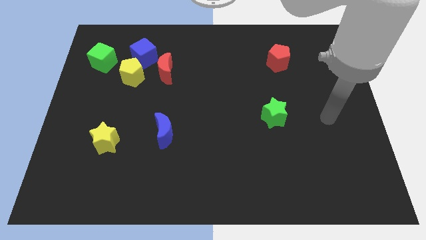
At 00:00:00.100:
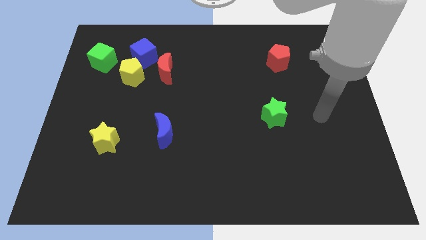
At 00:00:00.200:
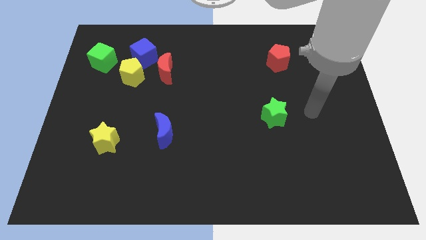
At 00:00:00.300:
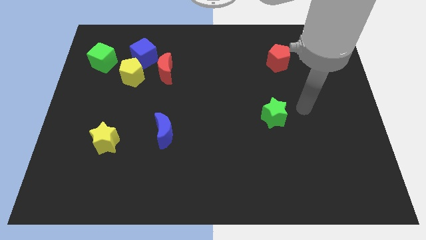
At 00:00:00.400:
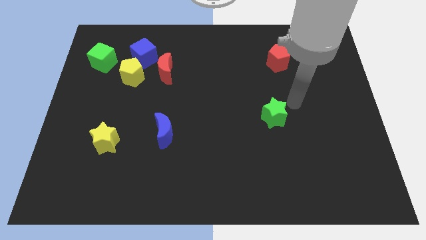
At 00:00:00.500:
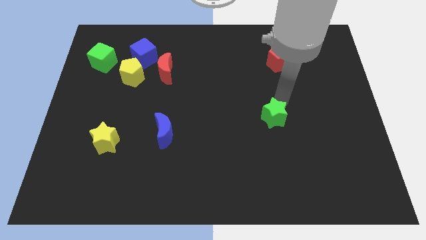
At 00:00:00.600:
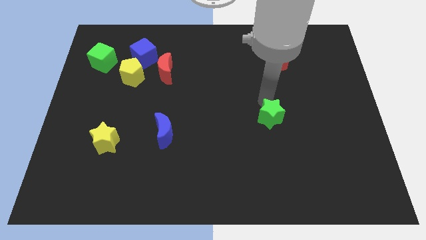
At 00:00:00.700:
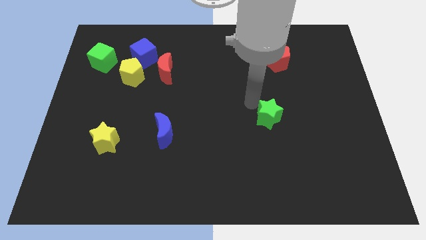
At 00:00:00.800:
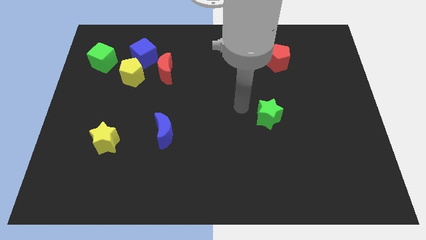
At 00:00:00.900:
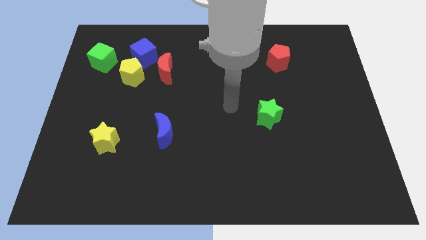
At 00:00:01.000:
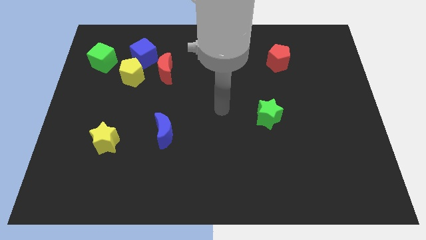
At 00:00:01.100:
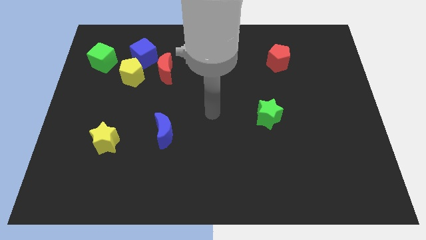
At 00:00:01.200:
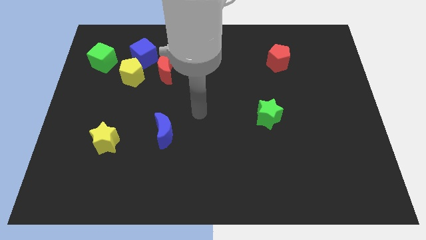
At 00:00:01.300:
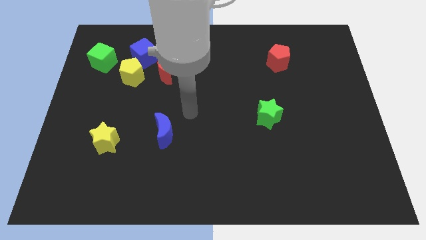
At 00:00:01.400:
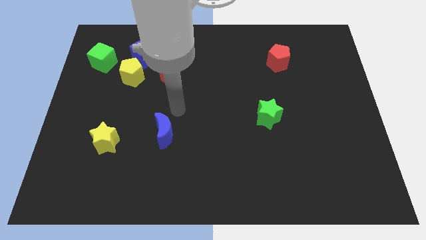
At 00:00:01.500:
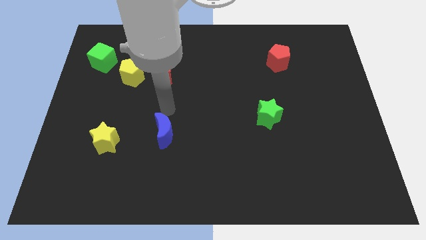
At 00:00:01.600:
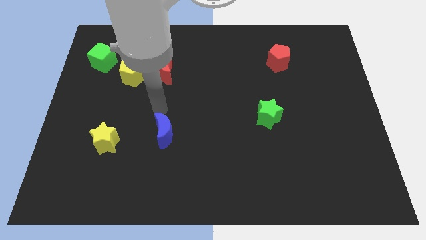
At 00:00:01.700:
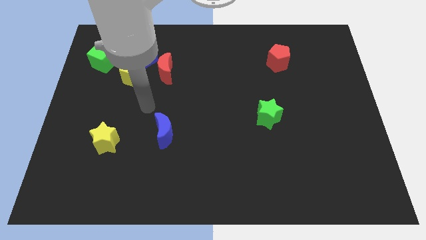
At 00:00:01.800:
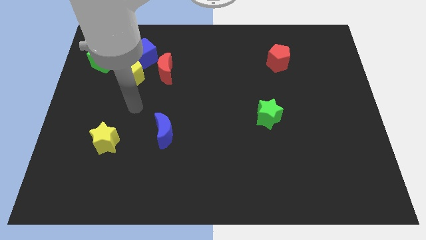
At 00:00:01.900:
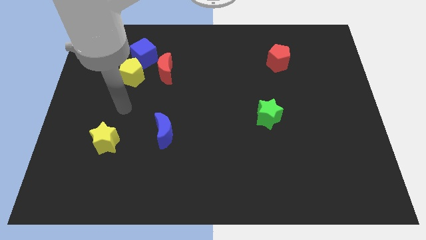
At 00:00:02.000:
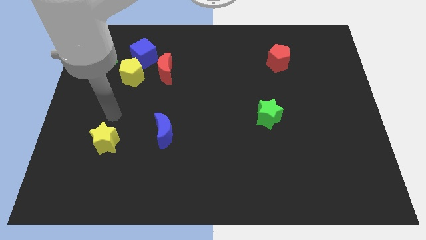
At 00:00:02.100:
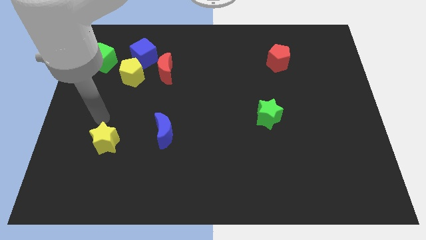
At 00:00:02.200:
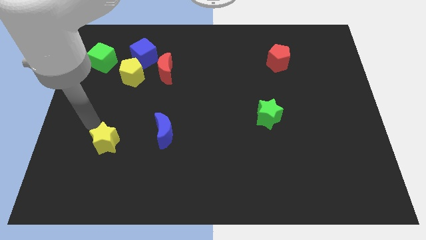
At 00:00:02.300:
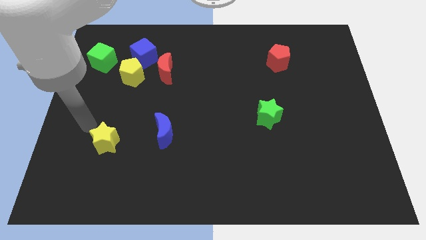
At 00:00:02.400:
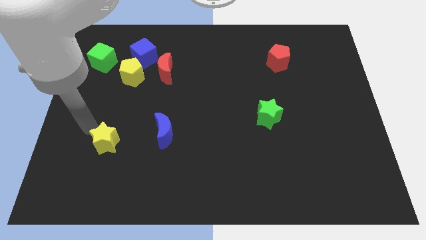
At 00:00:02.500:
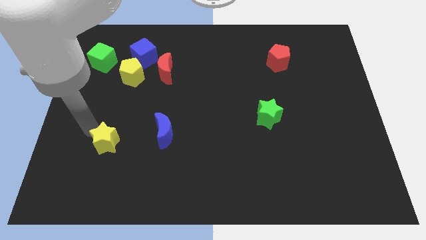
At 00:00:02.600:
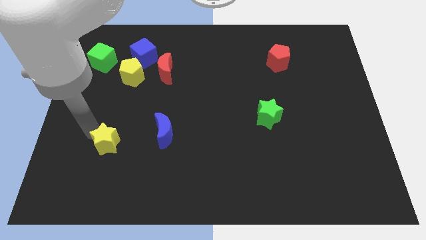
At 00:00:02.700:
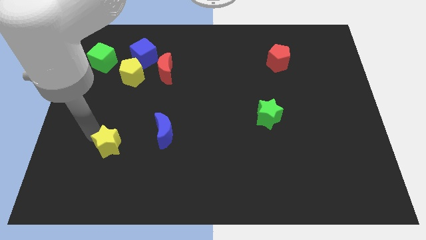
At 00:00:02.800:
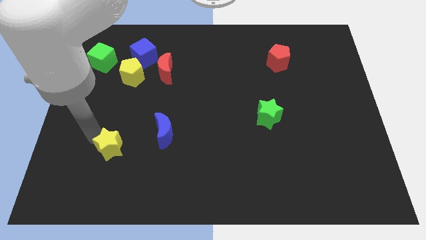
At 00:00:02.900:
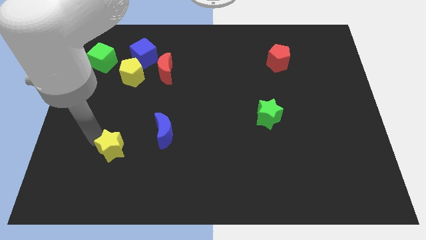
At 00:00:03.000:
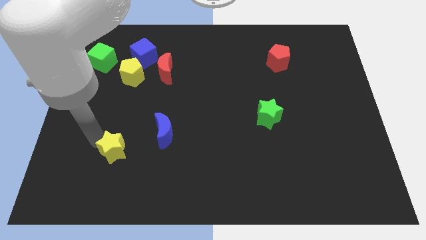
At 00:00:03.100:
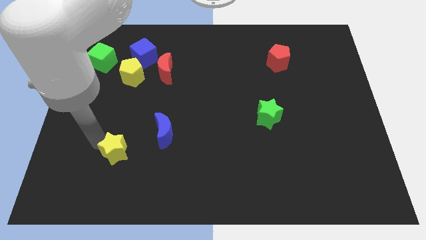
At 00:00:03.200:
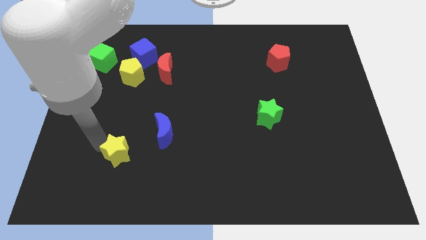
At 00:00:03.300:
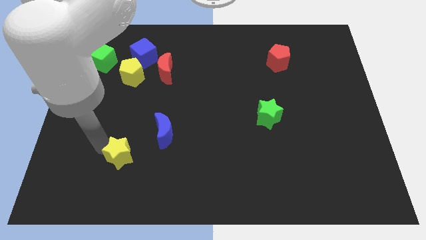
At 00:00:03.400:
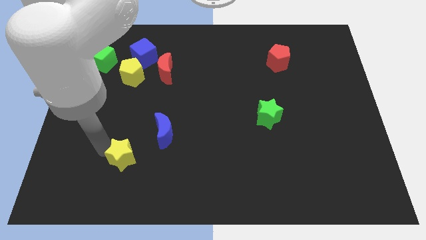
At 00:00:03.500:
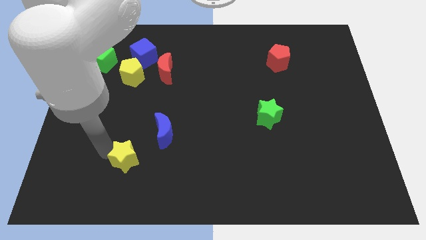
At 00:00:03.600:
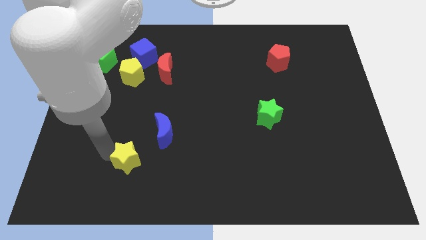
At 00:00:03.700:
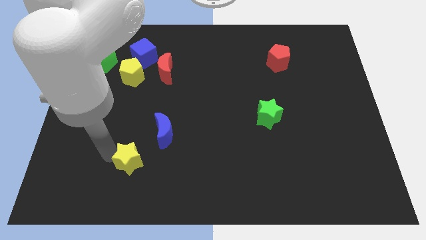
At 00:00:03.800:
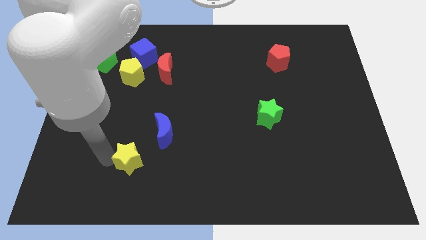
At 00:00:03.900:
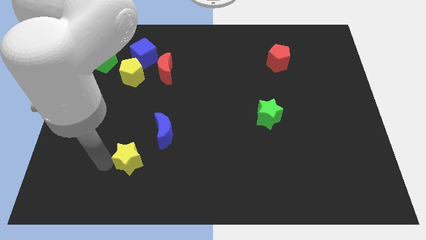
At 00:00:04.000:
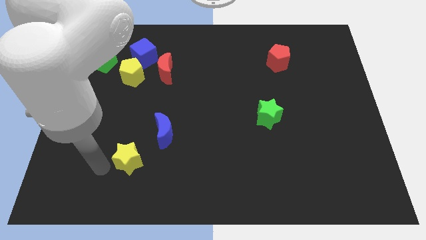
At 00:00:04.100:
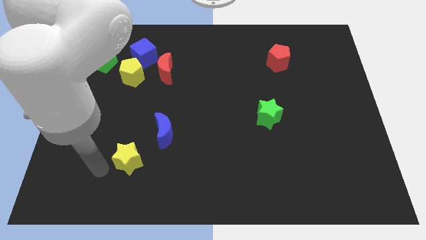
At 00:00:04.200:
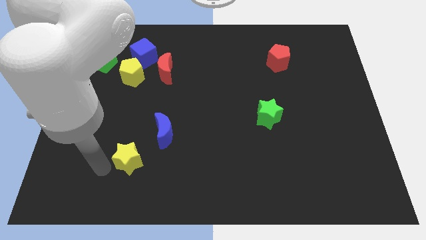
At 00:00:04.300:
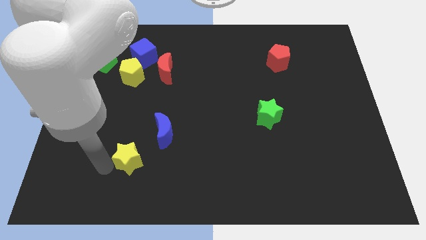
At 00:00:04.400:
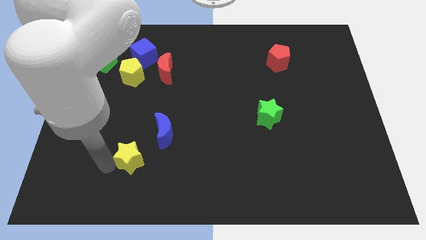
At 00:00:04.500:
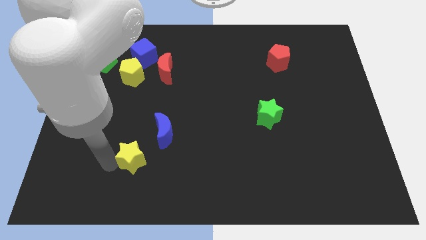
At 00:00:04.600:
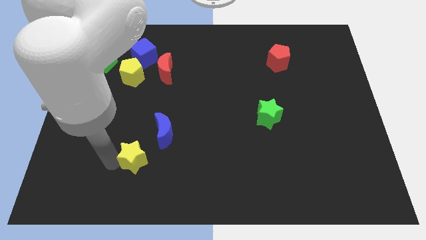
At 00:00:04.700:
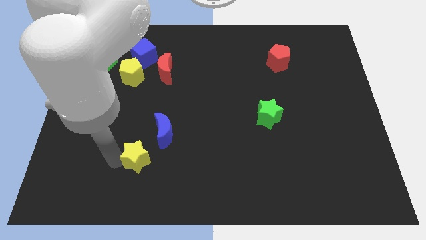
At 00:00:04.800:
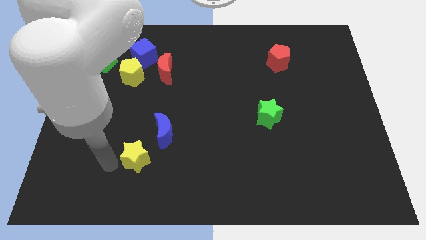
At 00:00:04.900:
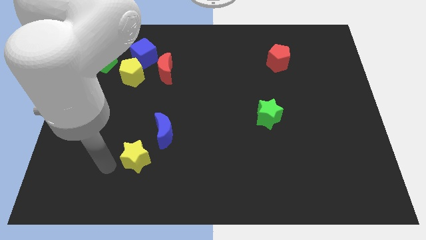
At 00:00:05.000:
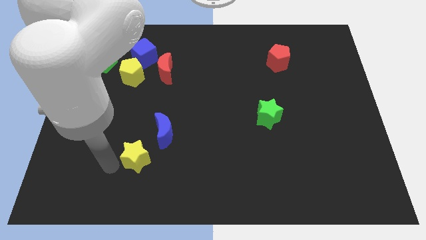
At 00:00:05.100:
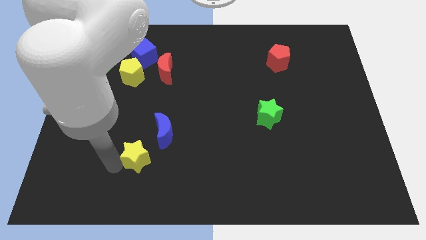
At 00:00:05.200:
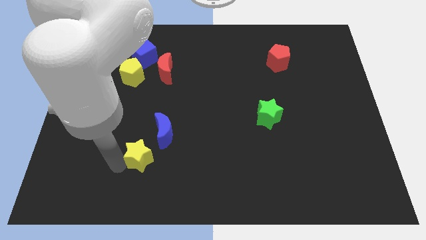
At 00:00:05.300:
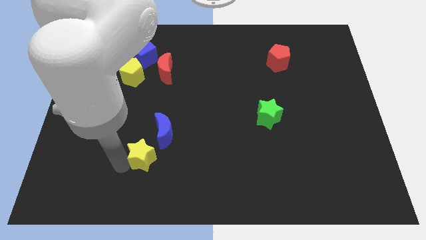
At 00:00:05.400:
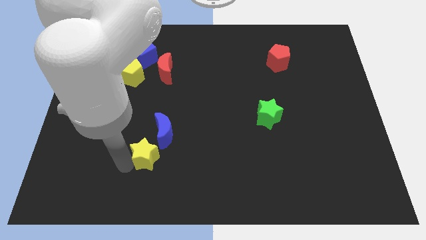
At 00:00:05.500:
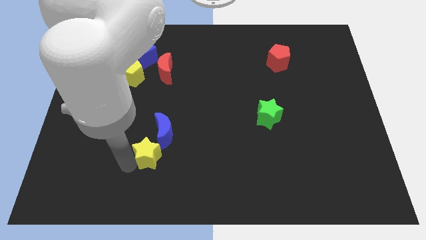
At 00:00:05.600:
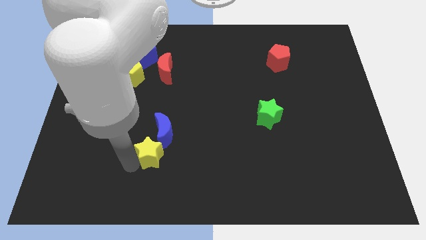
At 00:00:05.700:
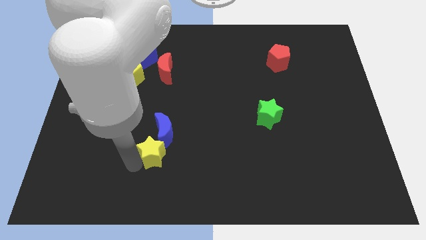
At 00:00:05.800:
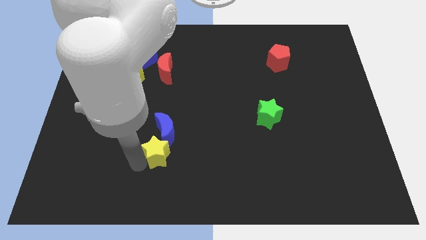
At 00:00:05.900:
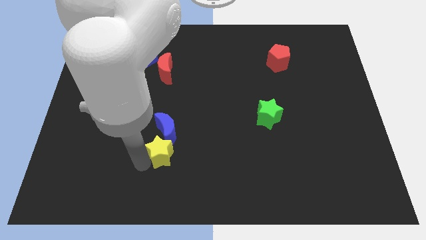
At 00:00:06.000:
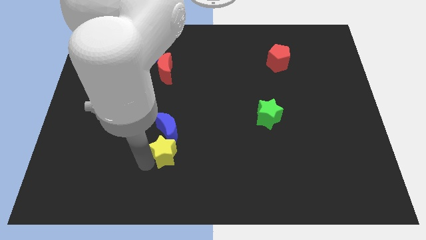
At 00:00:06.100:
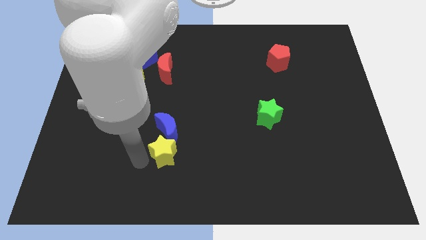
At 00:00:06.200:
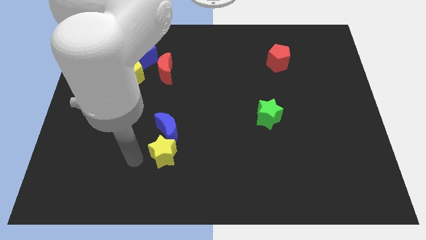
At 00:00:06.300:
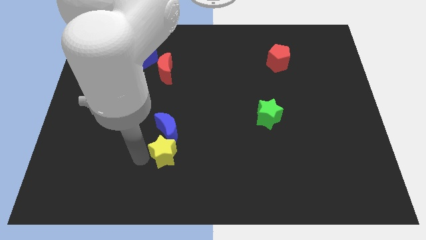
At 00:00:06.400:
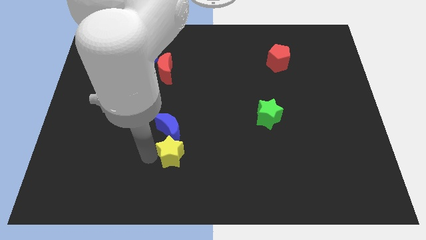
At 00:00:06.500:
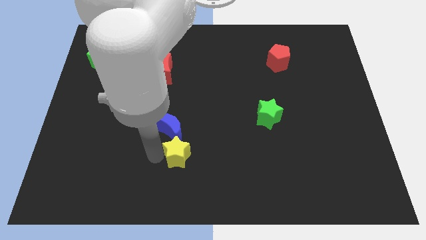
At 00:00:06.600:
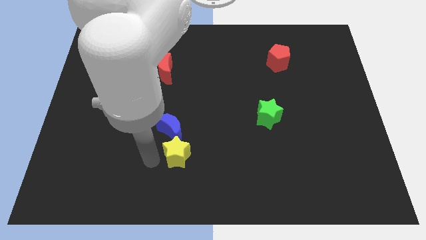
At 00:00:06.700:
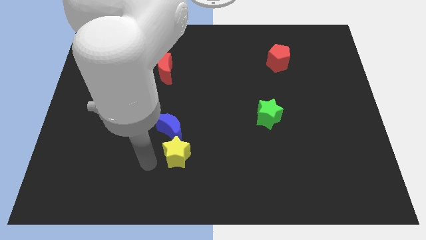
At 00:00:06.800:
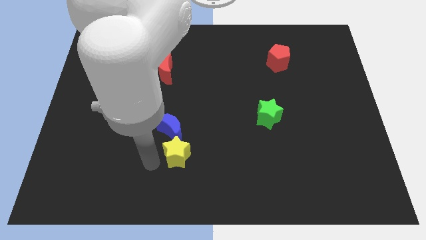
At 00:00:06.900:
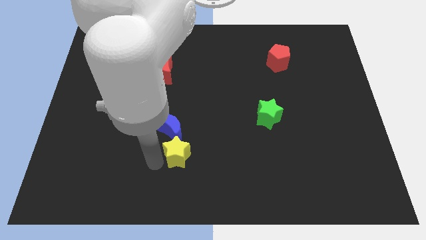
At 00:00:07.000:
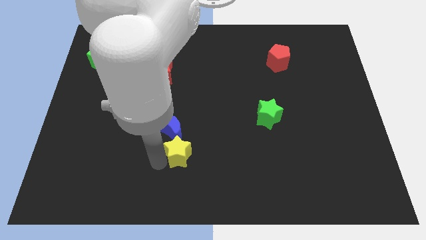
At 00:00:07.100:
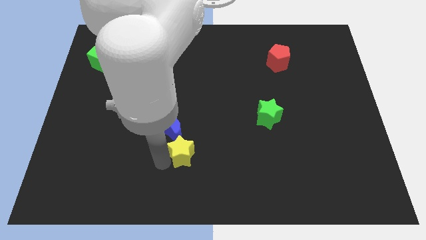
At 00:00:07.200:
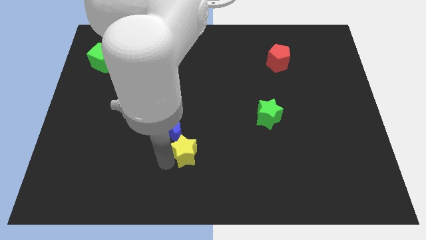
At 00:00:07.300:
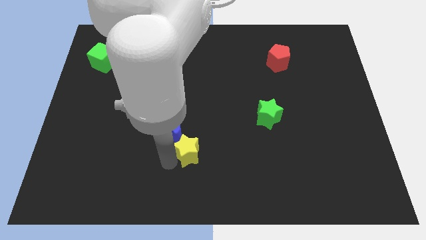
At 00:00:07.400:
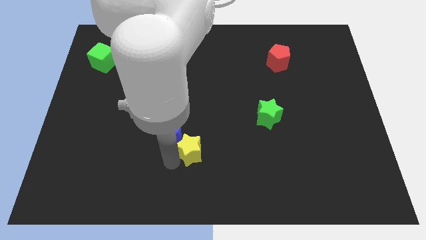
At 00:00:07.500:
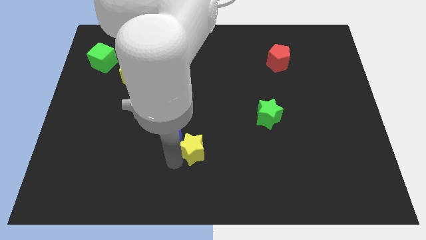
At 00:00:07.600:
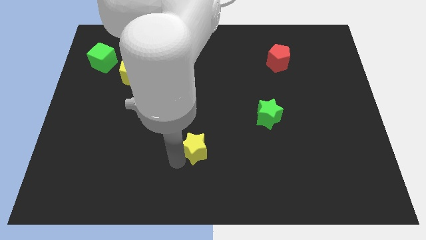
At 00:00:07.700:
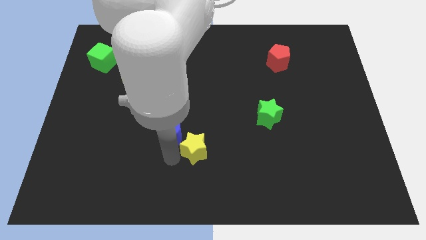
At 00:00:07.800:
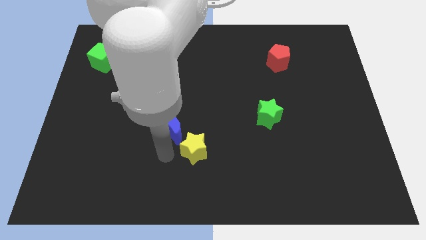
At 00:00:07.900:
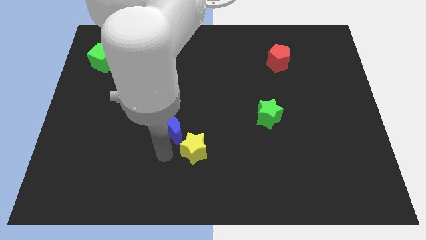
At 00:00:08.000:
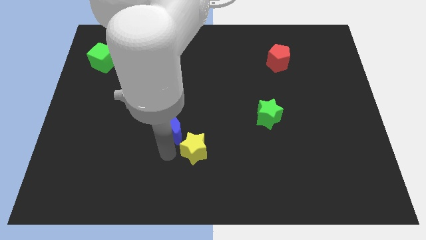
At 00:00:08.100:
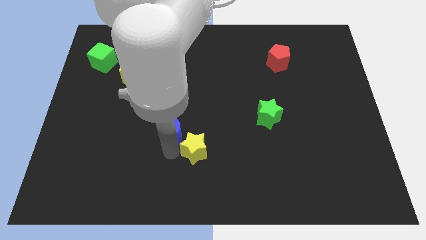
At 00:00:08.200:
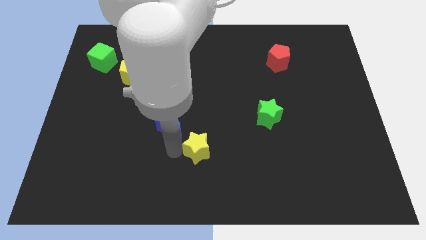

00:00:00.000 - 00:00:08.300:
push the yellow star right
